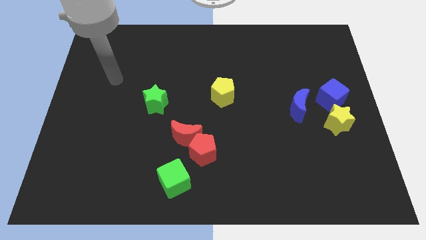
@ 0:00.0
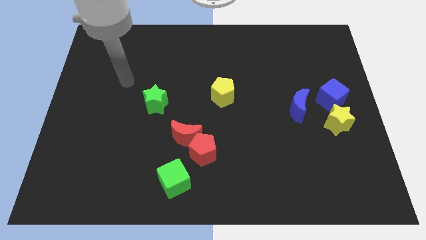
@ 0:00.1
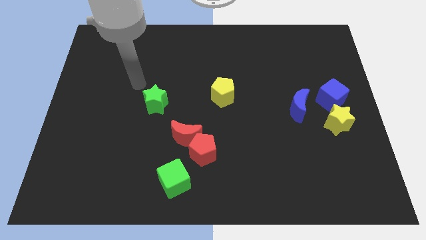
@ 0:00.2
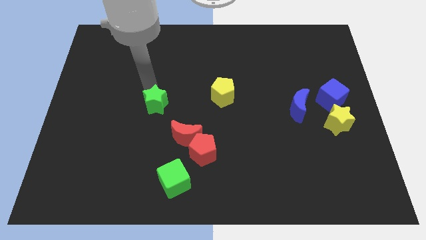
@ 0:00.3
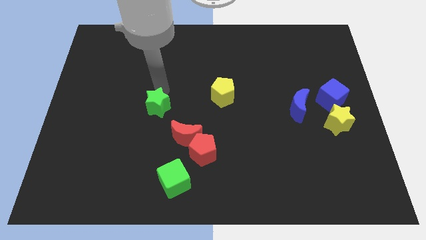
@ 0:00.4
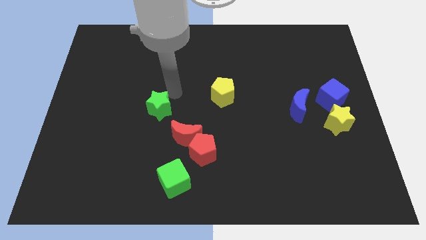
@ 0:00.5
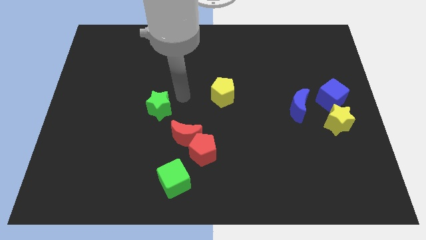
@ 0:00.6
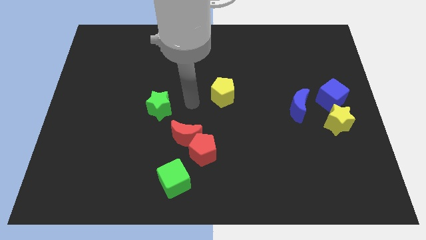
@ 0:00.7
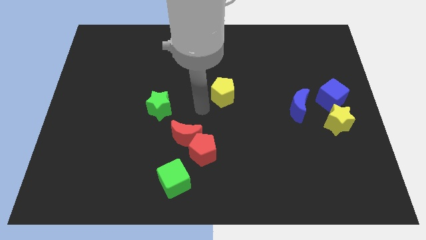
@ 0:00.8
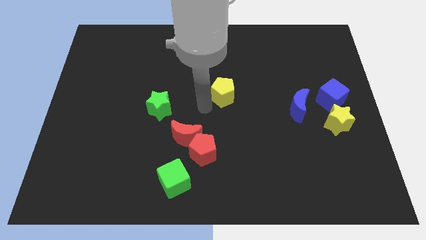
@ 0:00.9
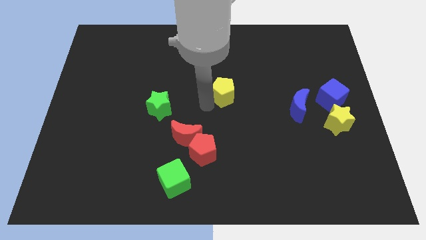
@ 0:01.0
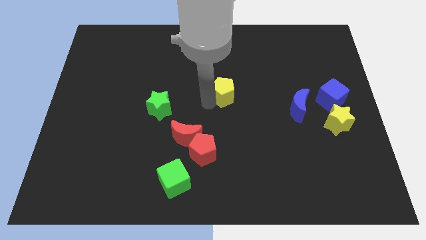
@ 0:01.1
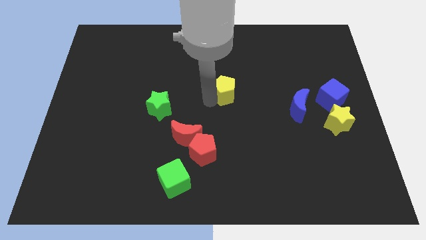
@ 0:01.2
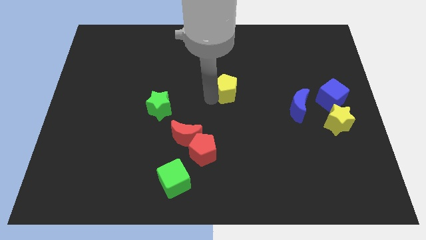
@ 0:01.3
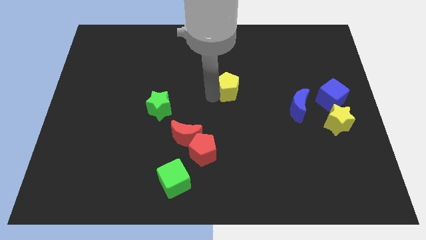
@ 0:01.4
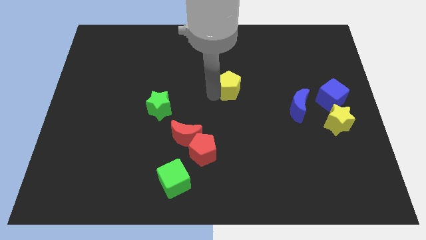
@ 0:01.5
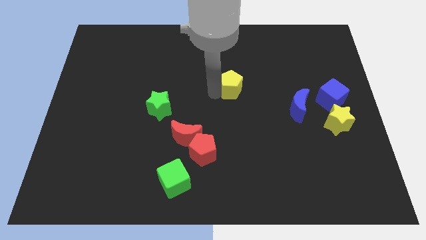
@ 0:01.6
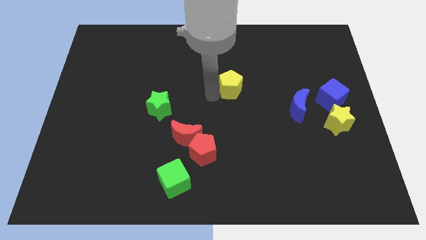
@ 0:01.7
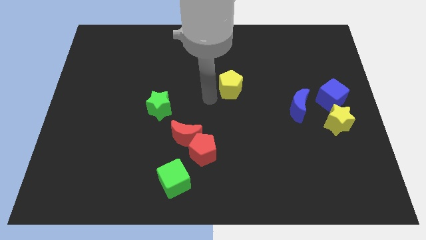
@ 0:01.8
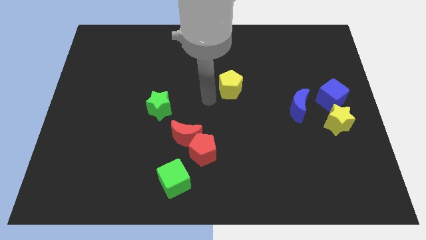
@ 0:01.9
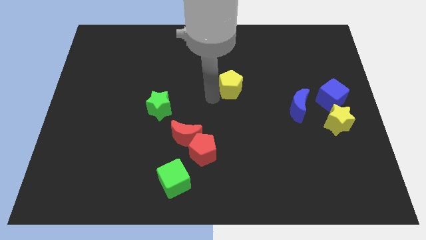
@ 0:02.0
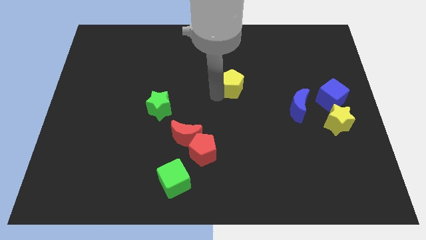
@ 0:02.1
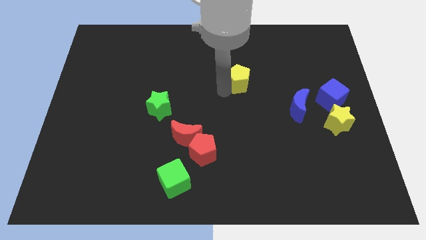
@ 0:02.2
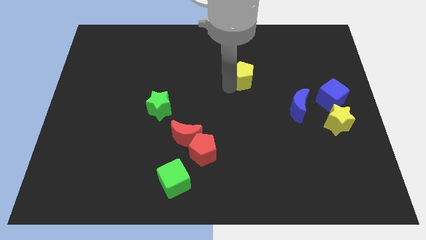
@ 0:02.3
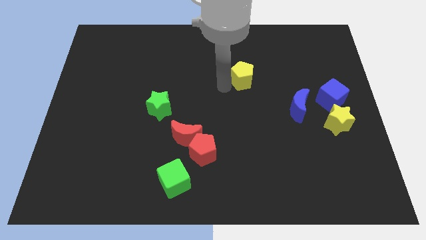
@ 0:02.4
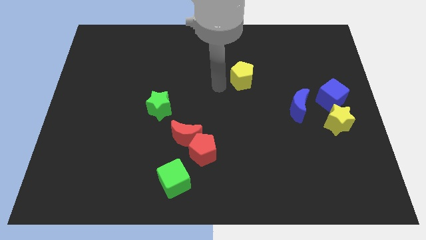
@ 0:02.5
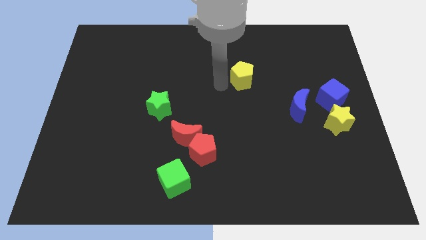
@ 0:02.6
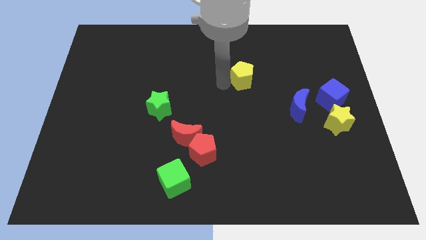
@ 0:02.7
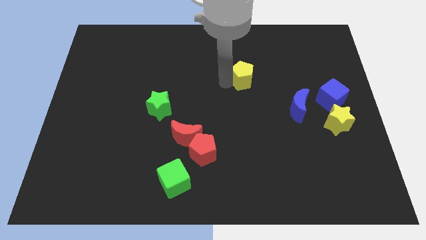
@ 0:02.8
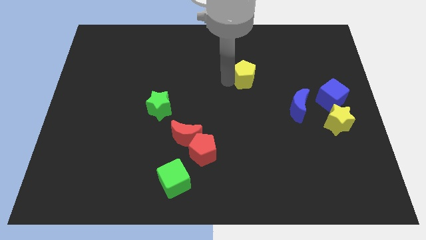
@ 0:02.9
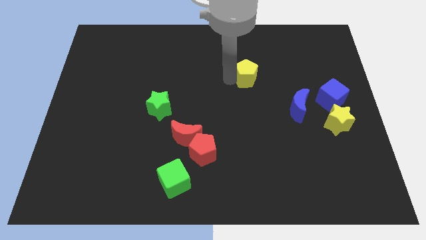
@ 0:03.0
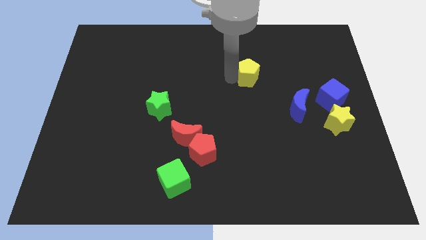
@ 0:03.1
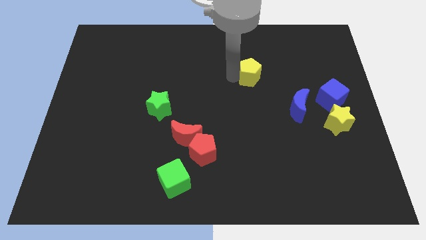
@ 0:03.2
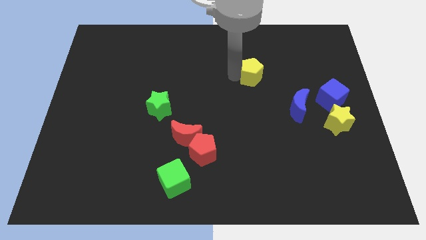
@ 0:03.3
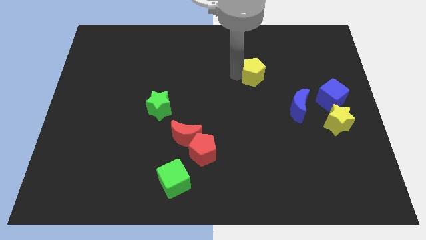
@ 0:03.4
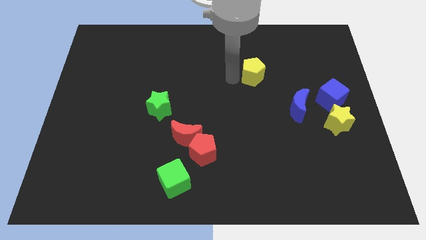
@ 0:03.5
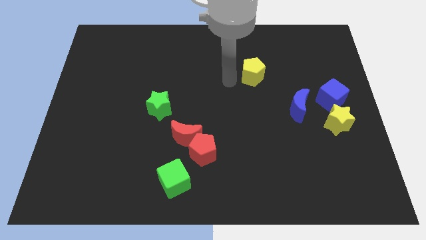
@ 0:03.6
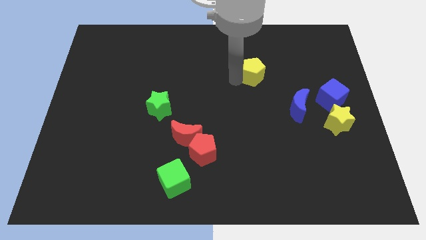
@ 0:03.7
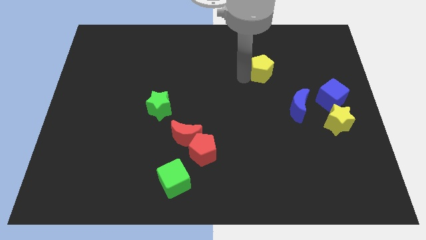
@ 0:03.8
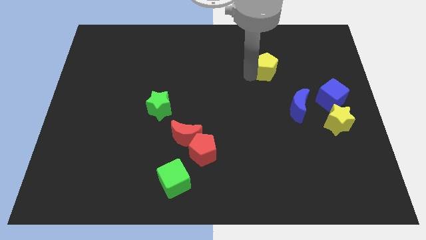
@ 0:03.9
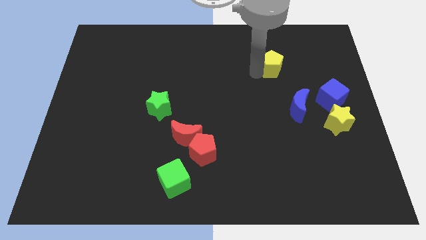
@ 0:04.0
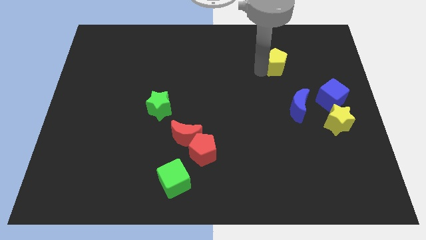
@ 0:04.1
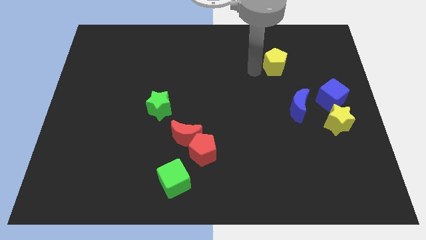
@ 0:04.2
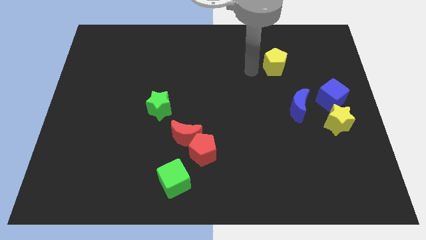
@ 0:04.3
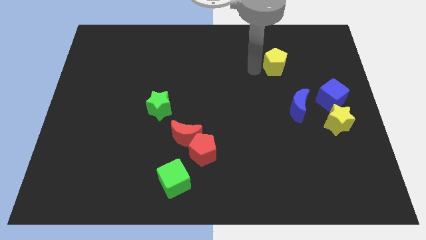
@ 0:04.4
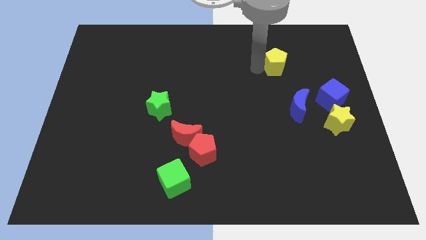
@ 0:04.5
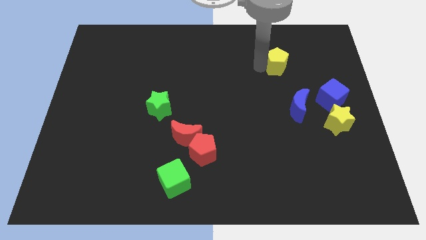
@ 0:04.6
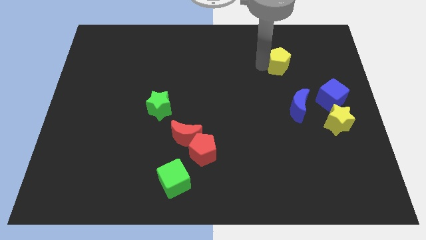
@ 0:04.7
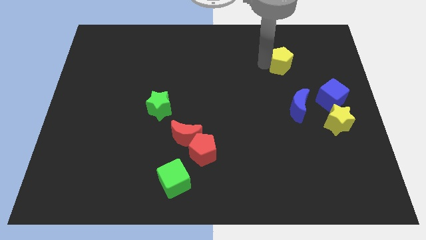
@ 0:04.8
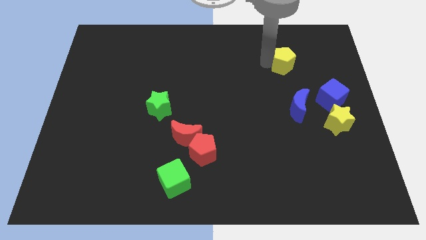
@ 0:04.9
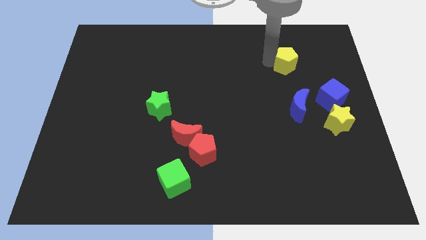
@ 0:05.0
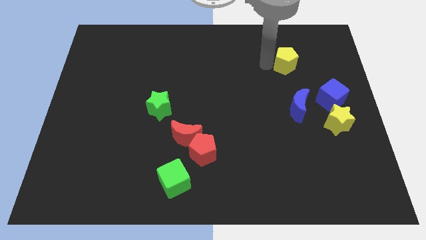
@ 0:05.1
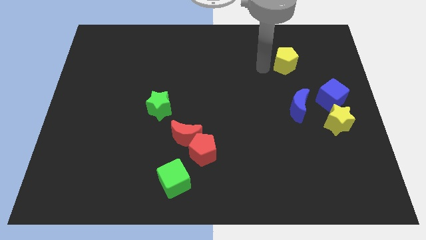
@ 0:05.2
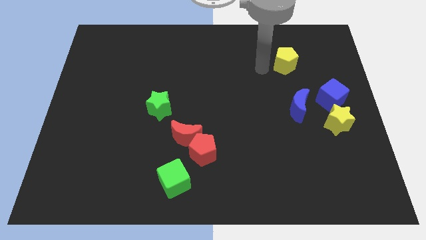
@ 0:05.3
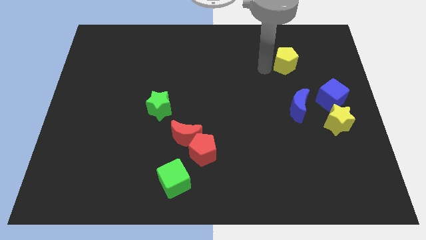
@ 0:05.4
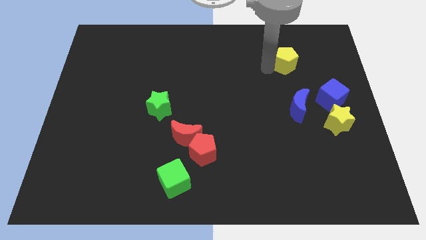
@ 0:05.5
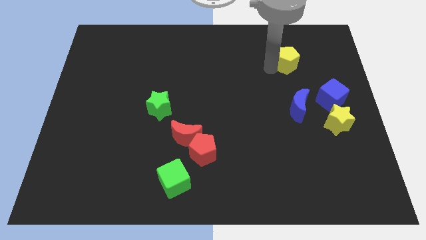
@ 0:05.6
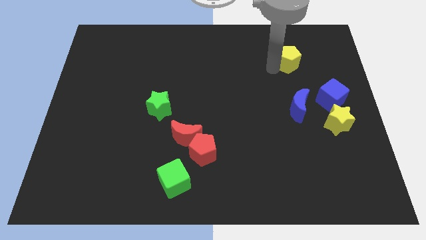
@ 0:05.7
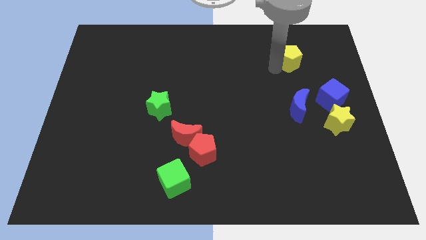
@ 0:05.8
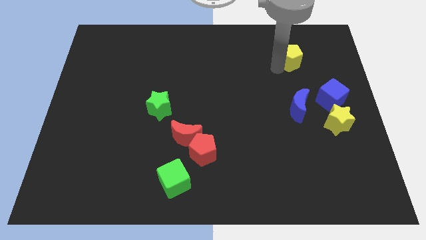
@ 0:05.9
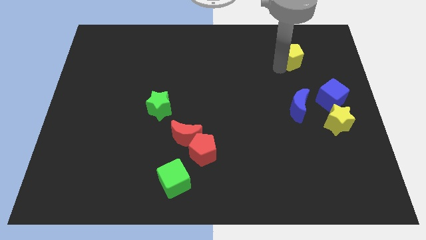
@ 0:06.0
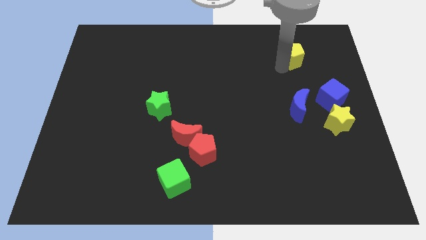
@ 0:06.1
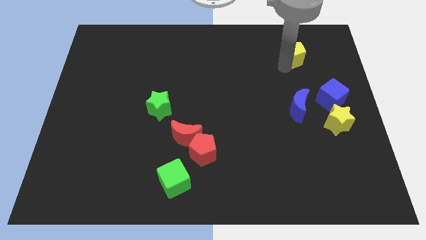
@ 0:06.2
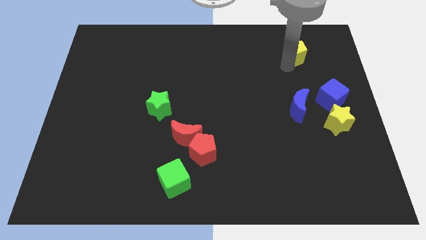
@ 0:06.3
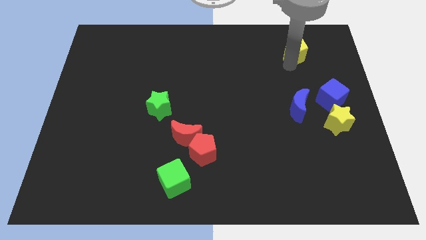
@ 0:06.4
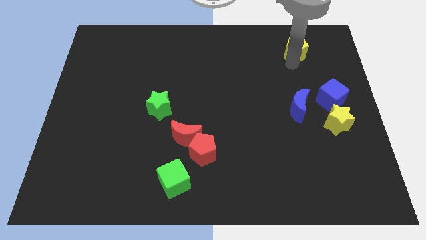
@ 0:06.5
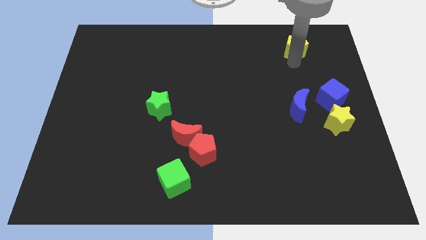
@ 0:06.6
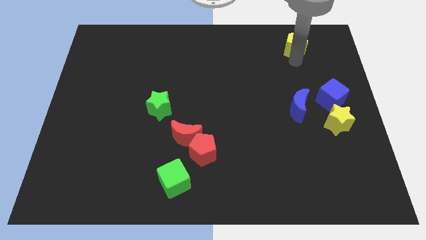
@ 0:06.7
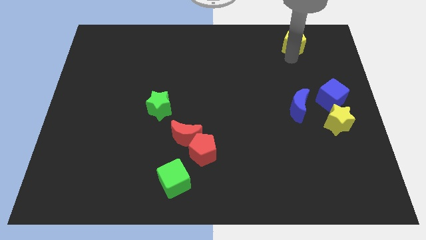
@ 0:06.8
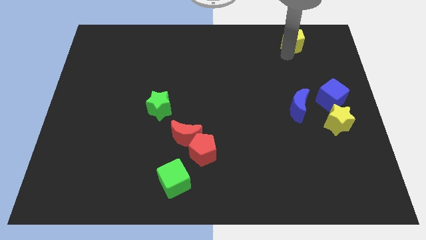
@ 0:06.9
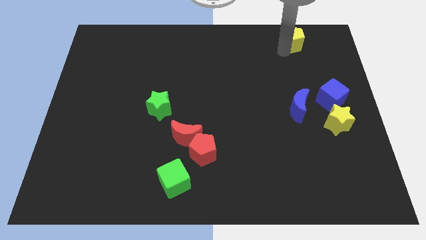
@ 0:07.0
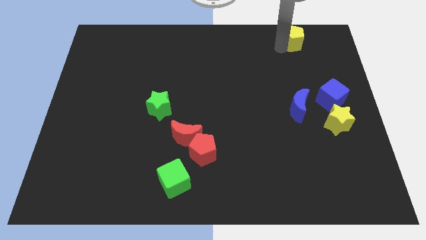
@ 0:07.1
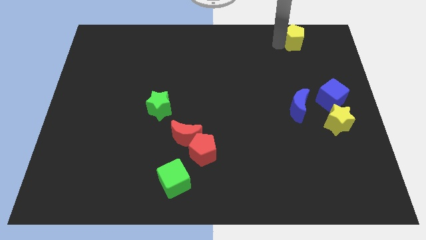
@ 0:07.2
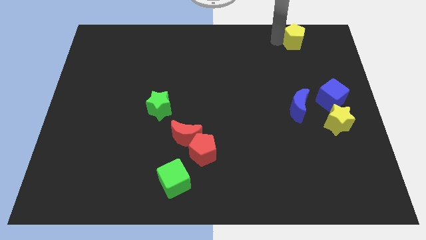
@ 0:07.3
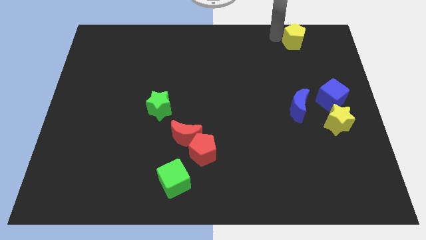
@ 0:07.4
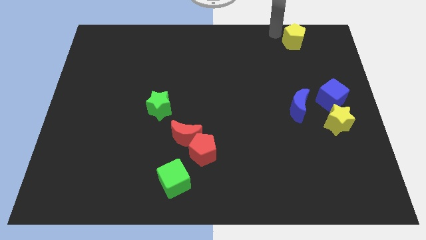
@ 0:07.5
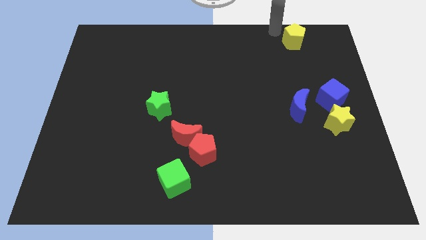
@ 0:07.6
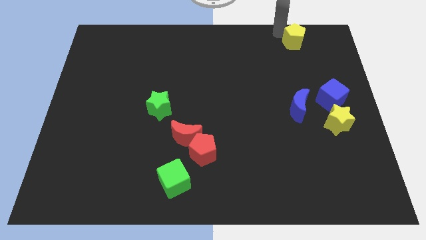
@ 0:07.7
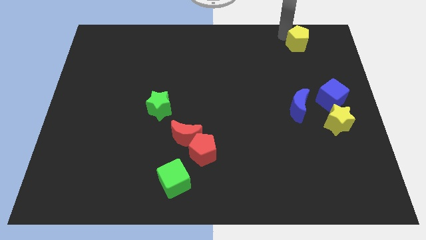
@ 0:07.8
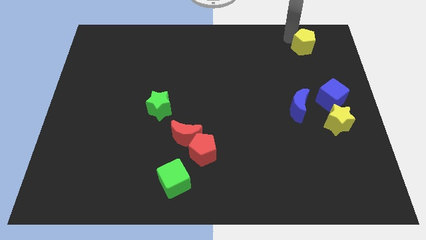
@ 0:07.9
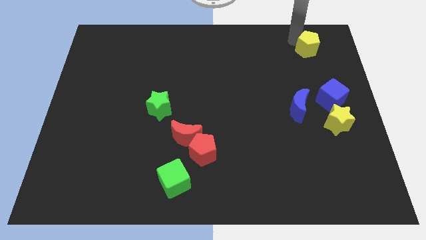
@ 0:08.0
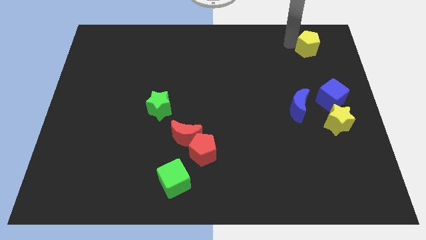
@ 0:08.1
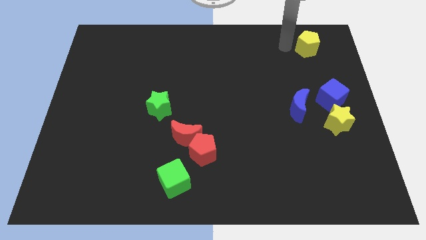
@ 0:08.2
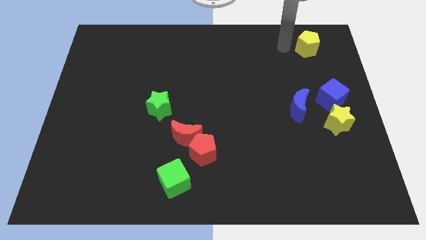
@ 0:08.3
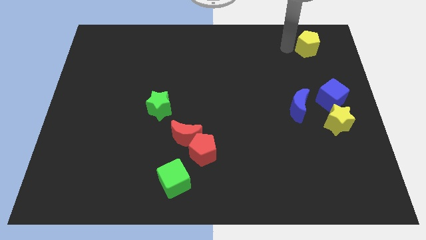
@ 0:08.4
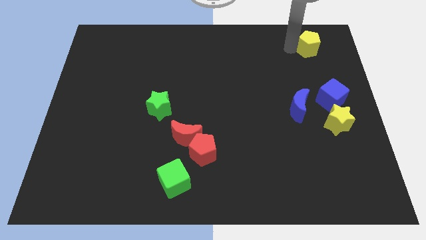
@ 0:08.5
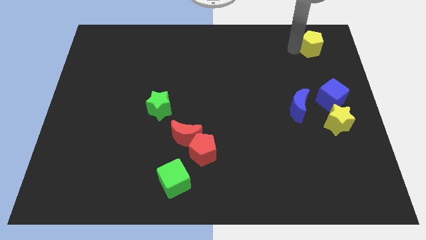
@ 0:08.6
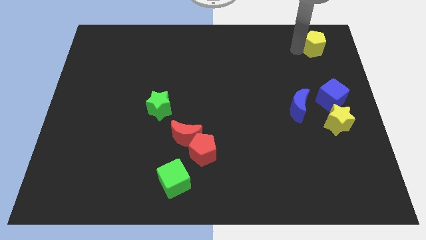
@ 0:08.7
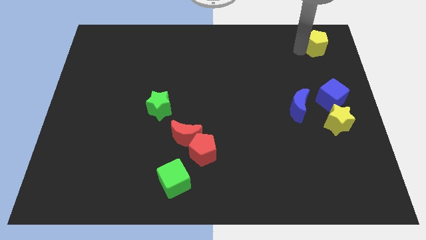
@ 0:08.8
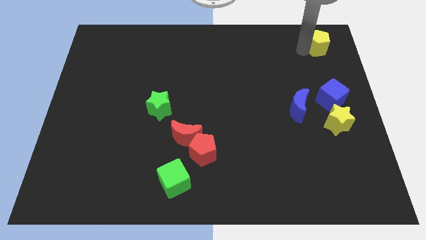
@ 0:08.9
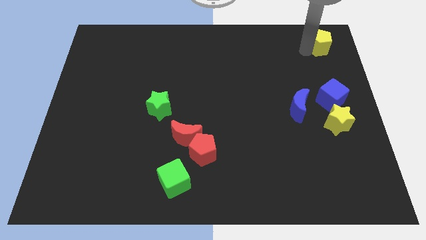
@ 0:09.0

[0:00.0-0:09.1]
move the yellow pentagon to the top right
